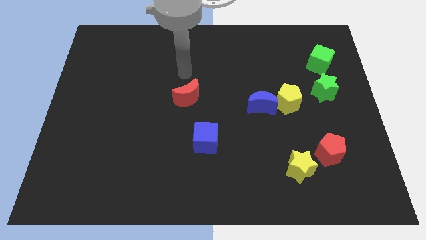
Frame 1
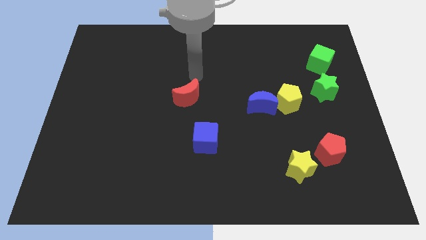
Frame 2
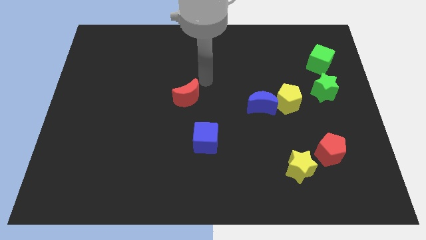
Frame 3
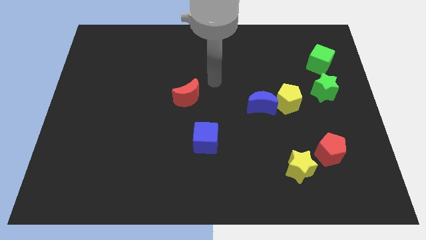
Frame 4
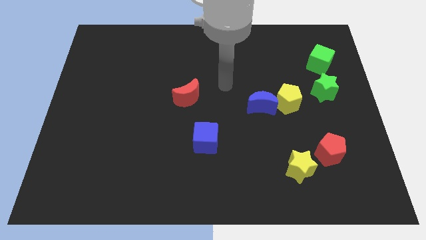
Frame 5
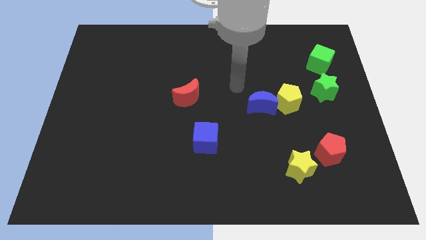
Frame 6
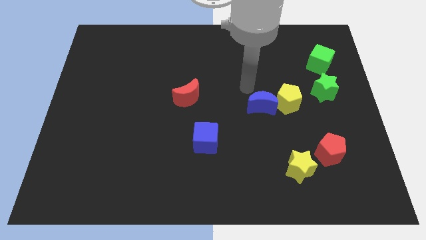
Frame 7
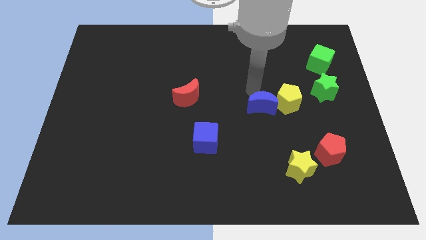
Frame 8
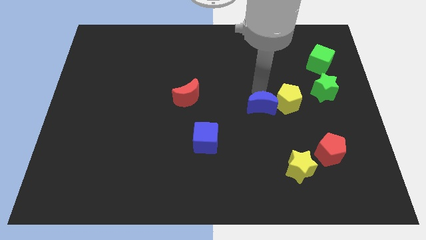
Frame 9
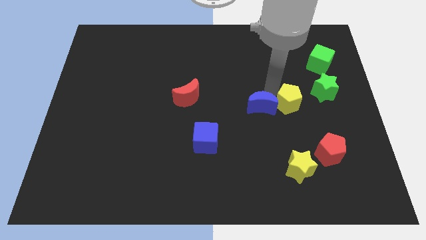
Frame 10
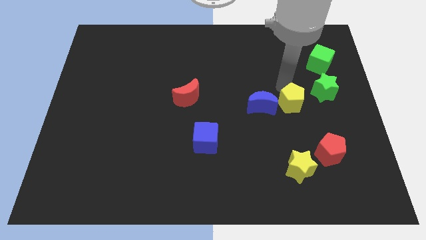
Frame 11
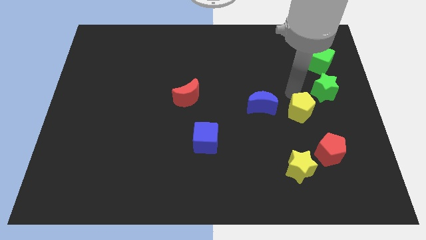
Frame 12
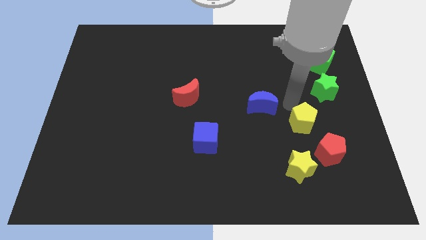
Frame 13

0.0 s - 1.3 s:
pull the blue moon apart from the yellow pentagon

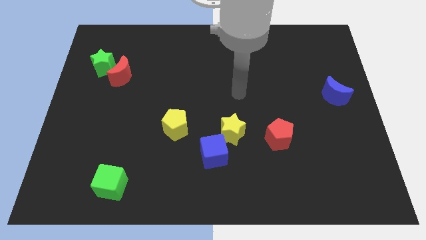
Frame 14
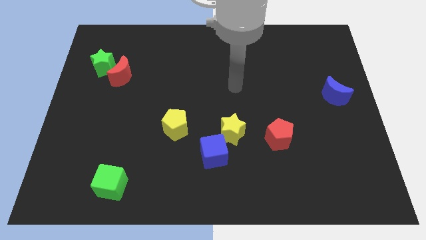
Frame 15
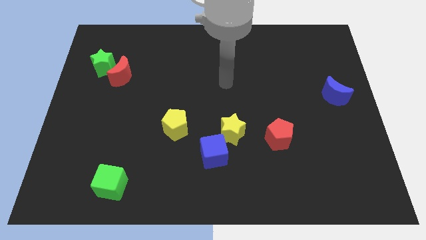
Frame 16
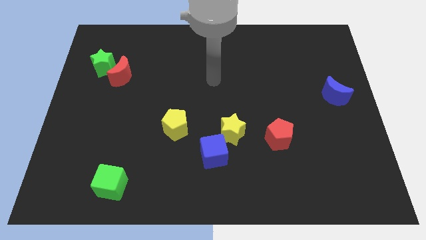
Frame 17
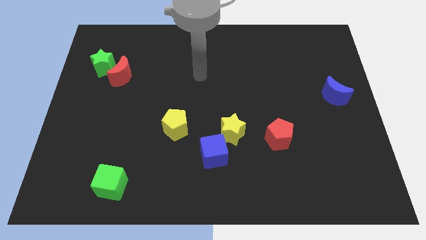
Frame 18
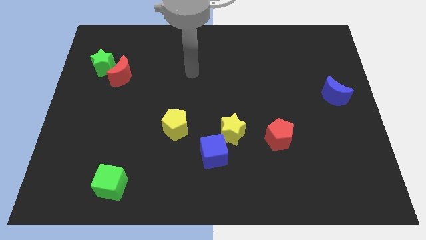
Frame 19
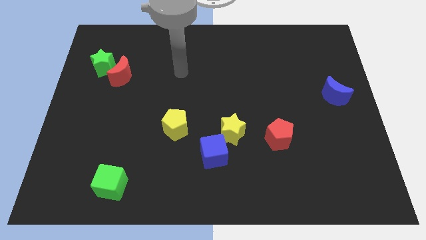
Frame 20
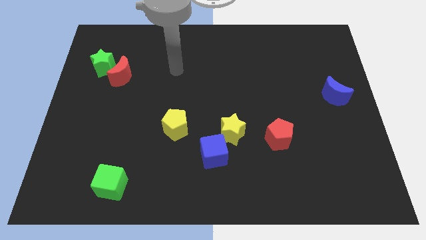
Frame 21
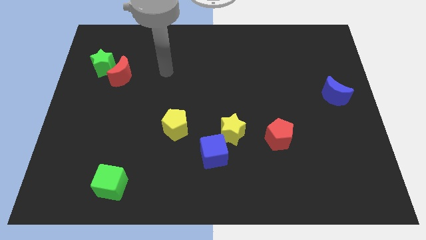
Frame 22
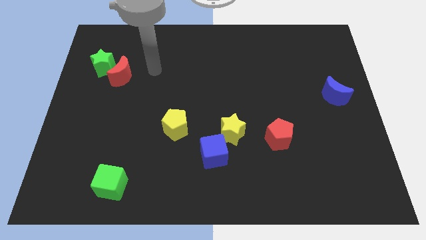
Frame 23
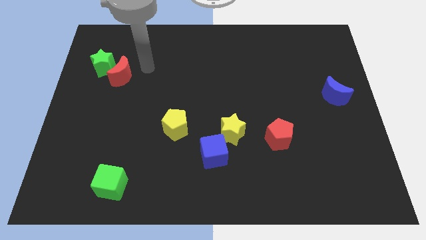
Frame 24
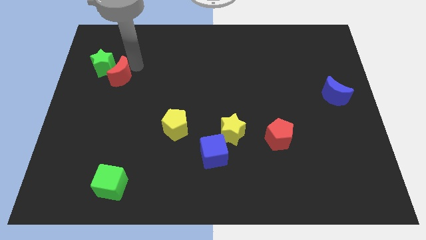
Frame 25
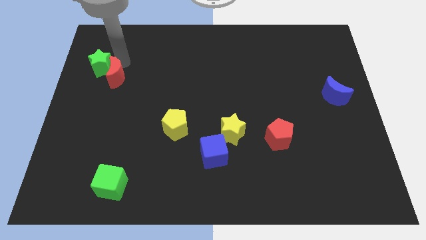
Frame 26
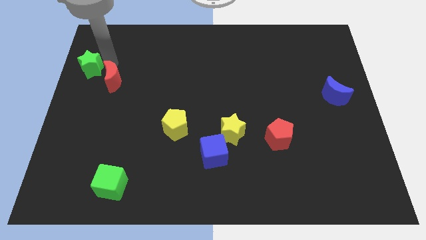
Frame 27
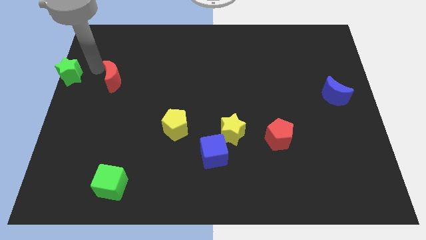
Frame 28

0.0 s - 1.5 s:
move the red moon away from the green star

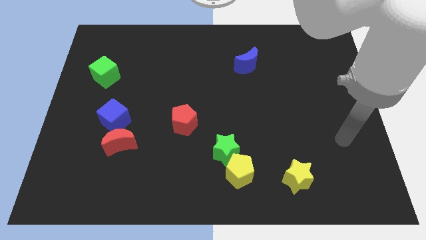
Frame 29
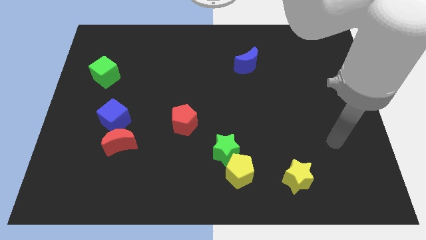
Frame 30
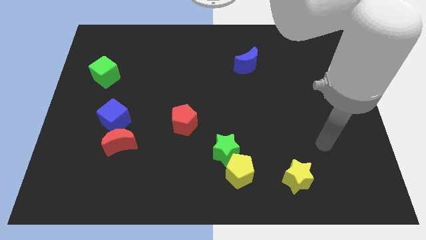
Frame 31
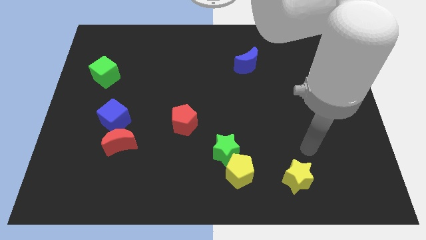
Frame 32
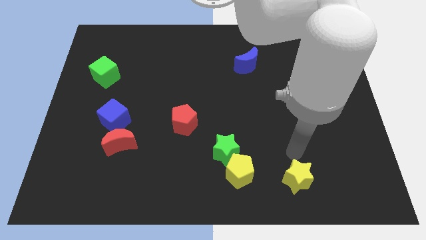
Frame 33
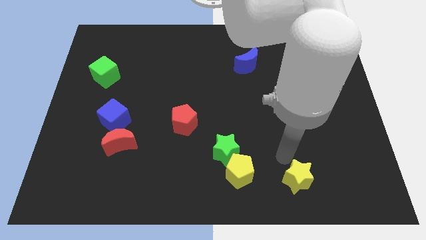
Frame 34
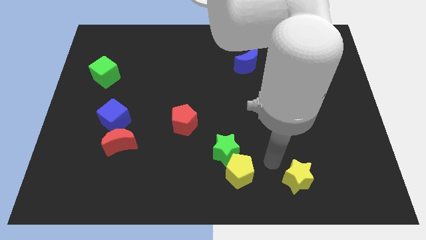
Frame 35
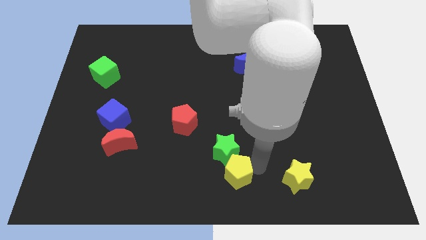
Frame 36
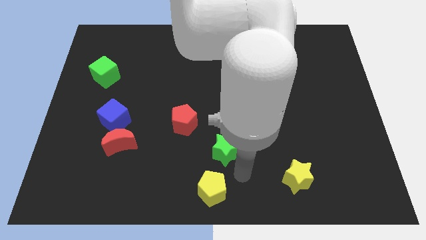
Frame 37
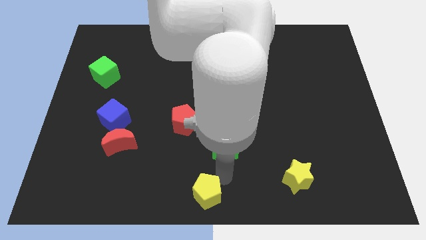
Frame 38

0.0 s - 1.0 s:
pull the green star apart from the yellow pentagon

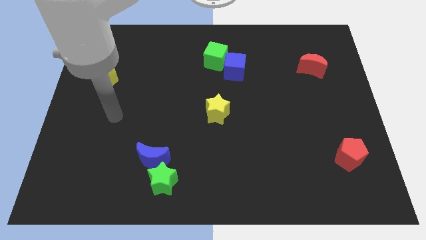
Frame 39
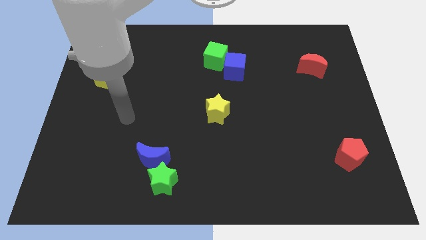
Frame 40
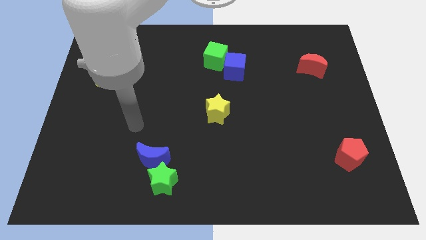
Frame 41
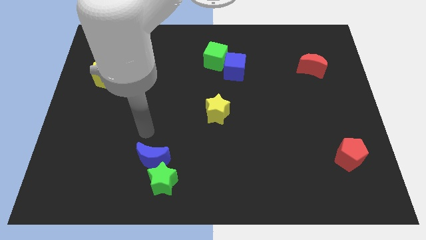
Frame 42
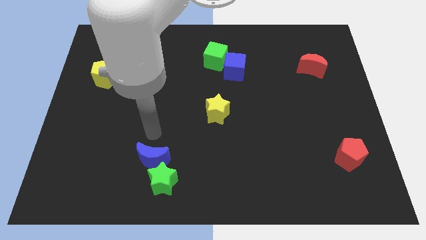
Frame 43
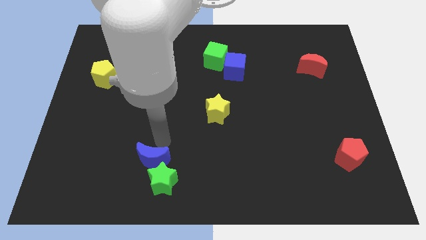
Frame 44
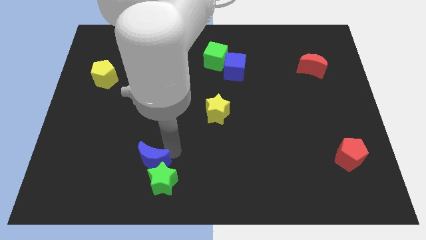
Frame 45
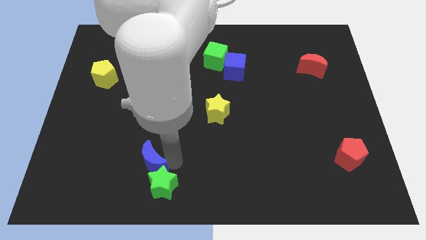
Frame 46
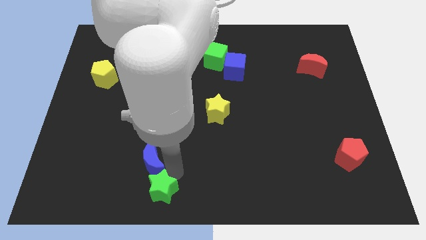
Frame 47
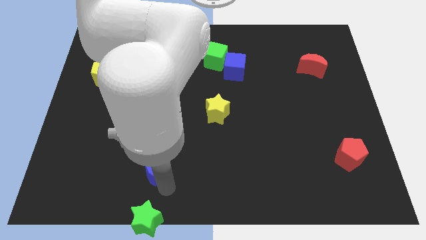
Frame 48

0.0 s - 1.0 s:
pull the blue moon apart from the green star

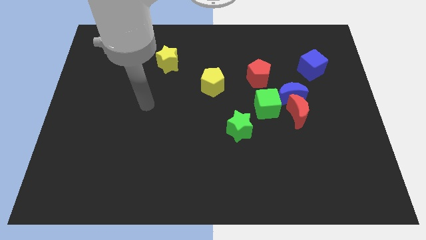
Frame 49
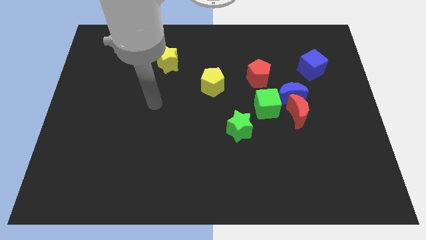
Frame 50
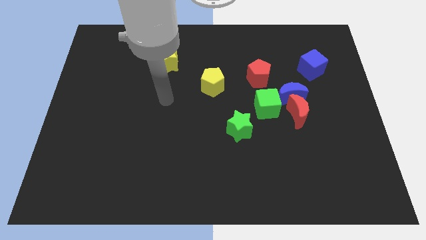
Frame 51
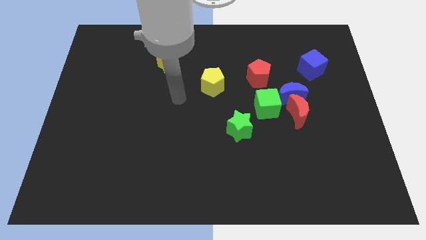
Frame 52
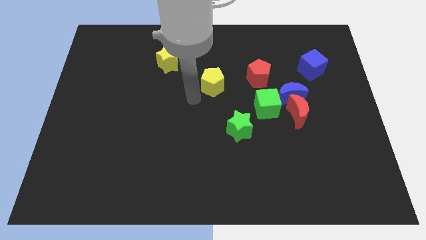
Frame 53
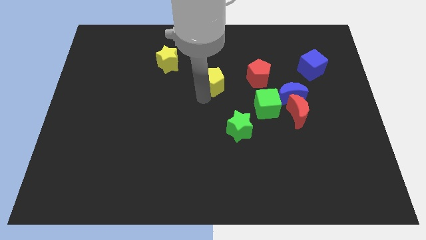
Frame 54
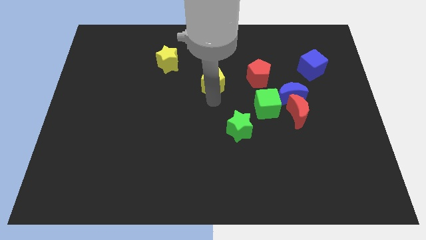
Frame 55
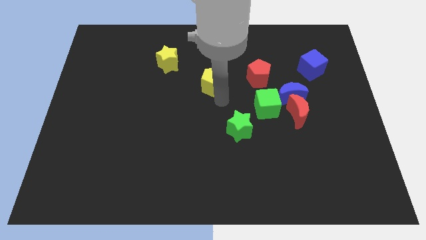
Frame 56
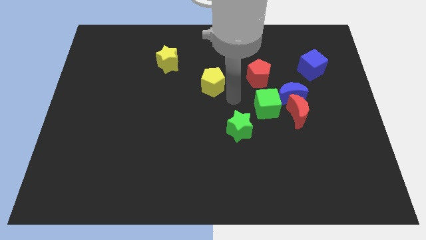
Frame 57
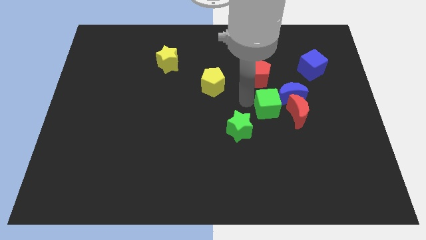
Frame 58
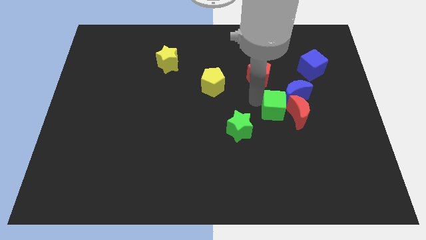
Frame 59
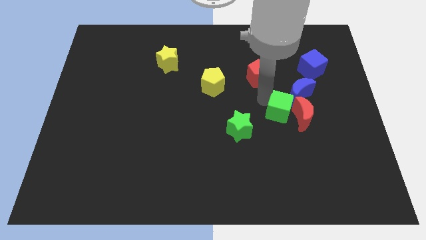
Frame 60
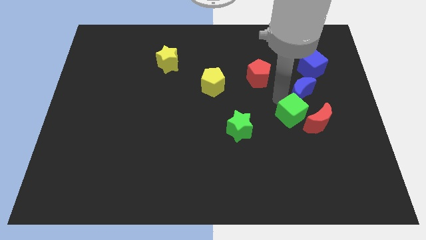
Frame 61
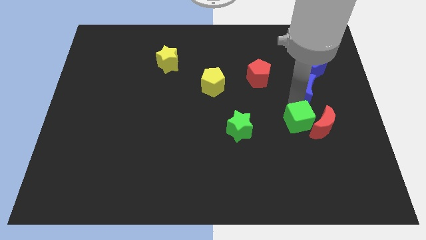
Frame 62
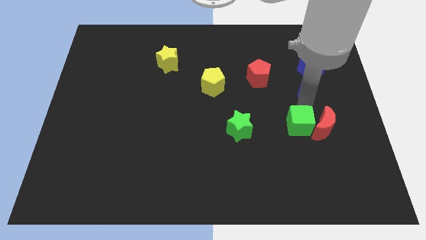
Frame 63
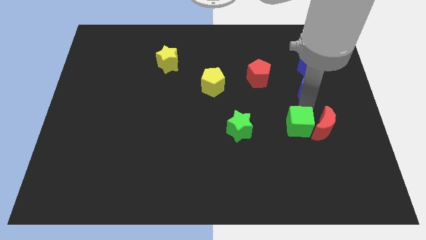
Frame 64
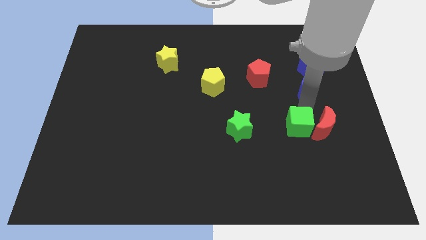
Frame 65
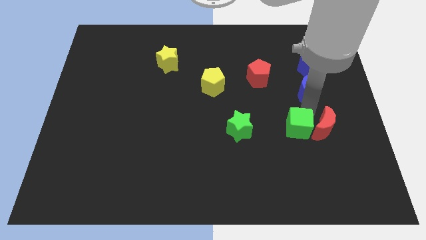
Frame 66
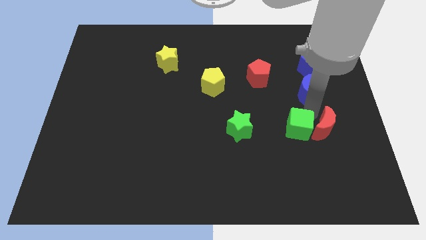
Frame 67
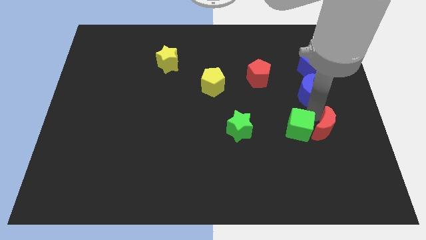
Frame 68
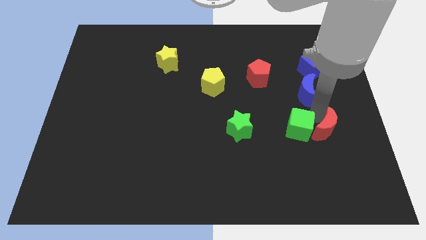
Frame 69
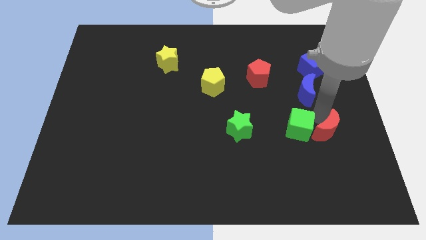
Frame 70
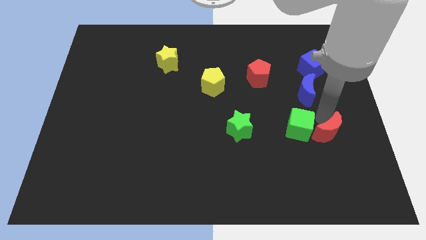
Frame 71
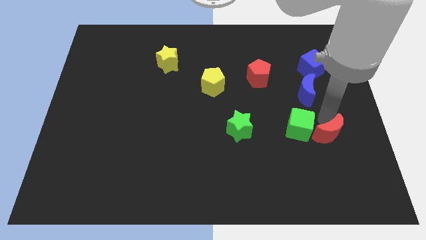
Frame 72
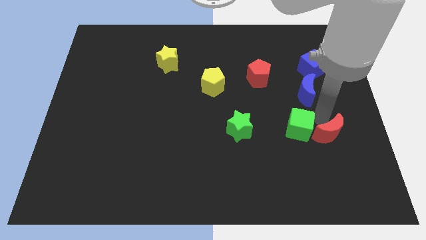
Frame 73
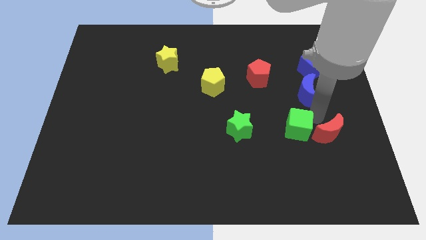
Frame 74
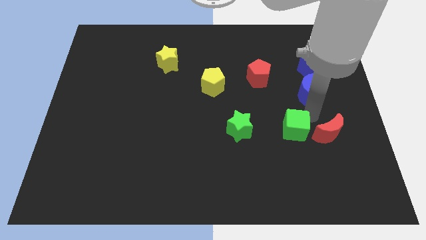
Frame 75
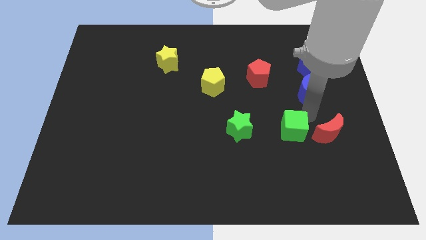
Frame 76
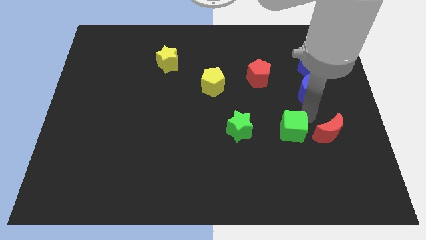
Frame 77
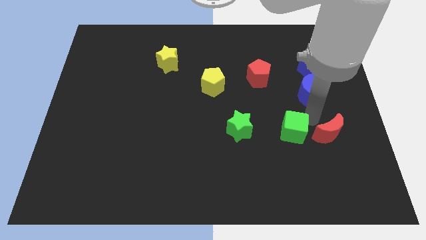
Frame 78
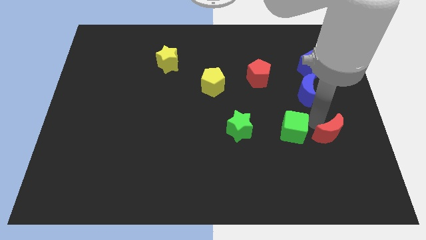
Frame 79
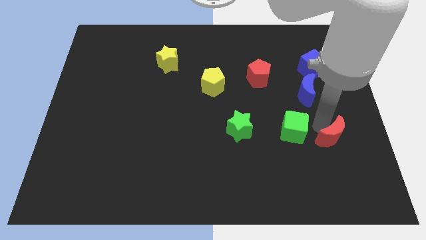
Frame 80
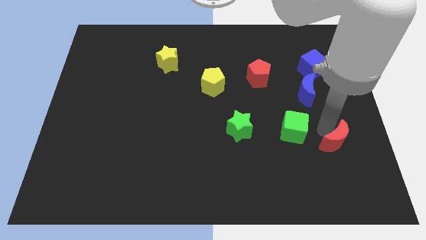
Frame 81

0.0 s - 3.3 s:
pull the red moon apart from the blue moon and green cube

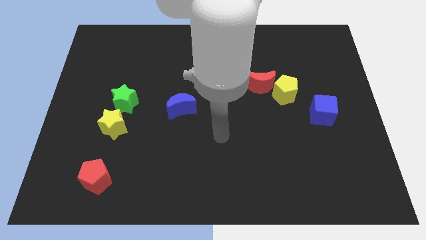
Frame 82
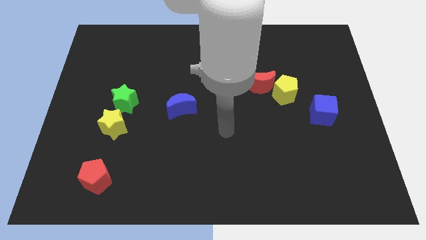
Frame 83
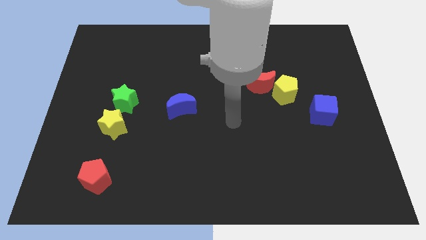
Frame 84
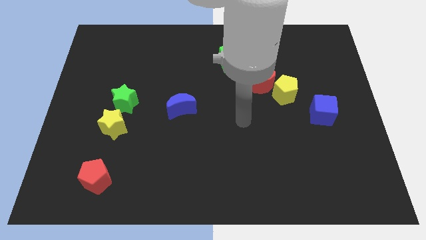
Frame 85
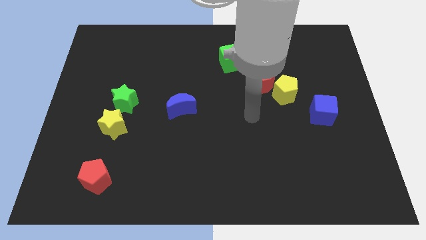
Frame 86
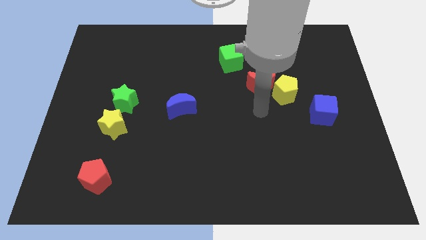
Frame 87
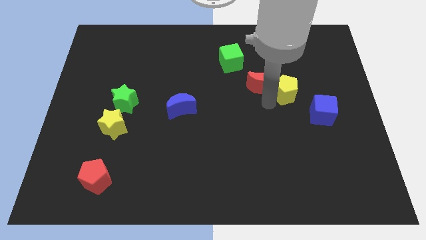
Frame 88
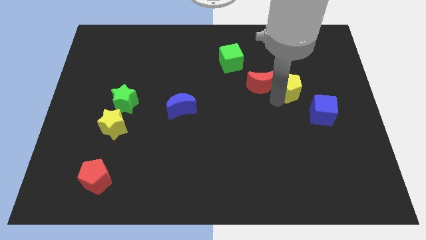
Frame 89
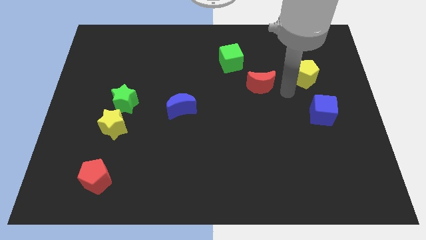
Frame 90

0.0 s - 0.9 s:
move the red moon away from the yellow pentagon

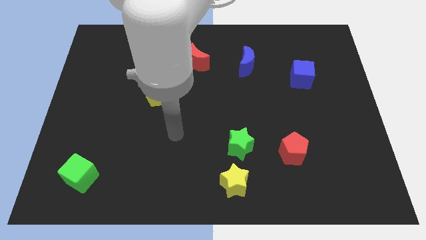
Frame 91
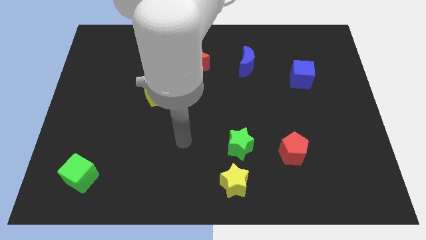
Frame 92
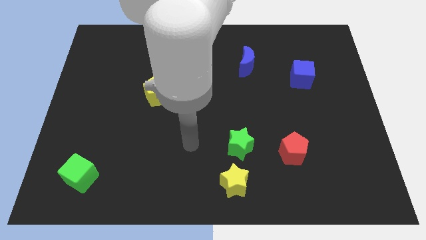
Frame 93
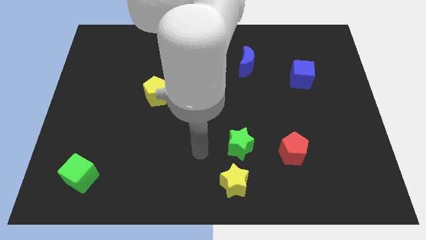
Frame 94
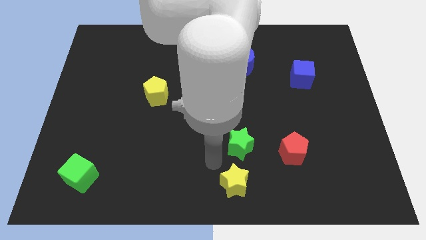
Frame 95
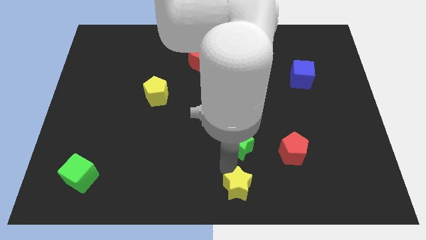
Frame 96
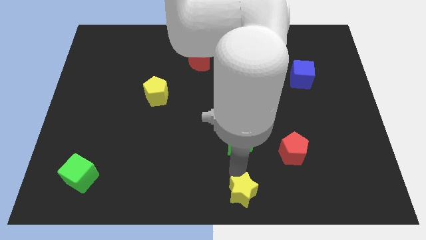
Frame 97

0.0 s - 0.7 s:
move the green star away from the yellow star
